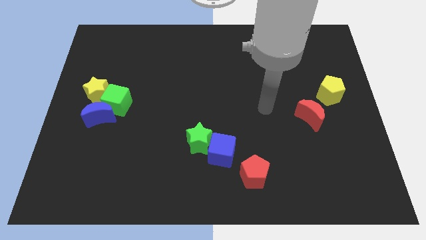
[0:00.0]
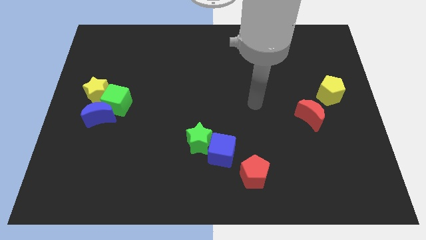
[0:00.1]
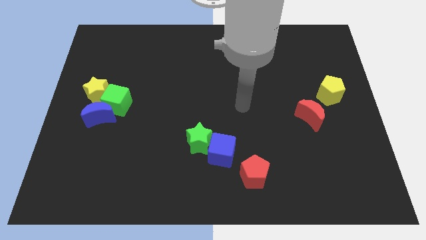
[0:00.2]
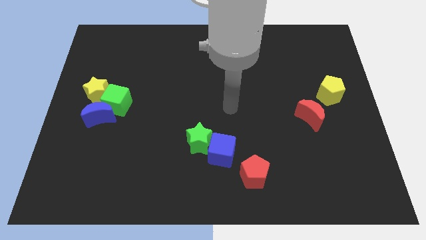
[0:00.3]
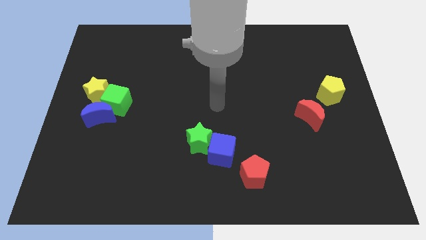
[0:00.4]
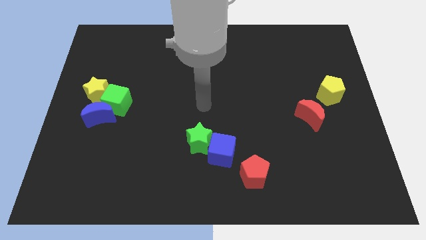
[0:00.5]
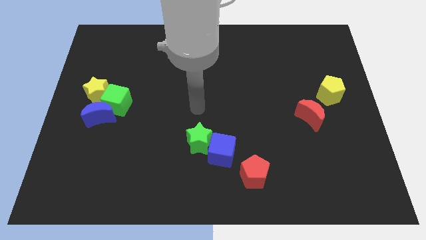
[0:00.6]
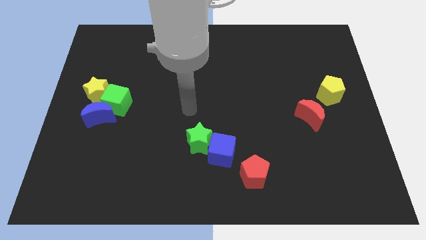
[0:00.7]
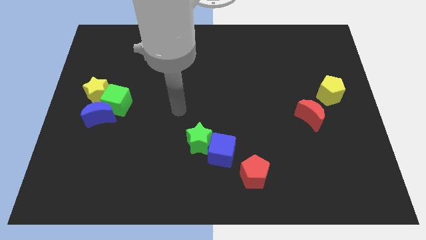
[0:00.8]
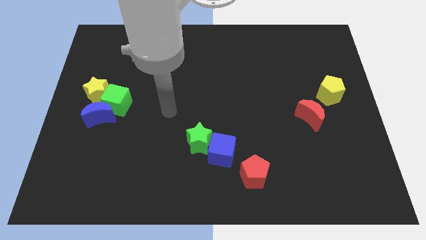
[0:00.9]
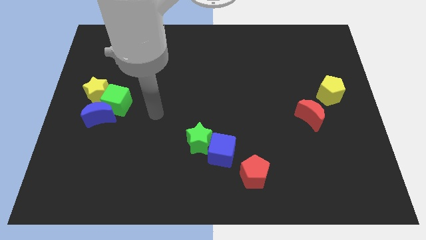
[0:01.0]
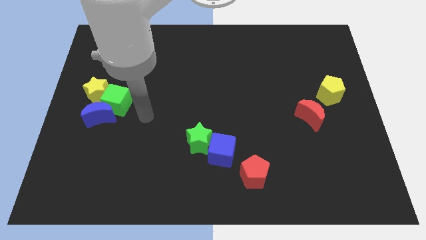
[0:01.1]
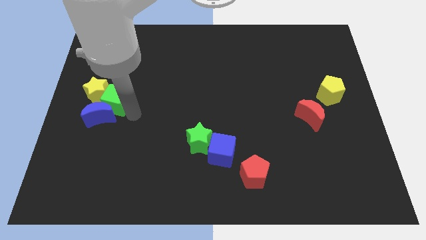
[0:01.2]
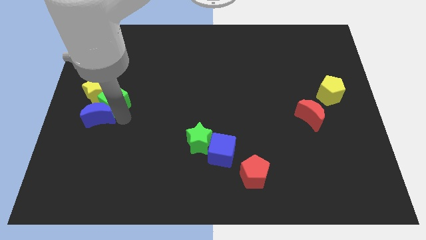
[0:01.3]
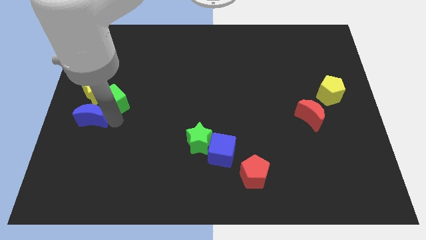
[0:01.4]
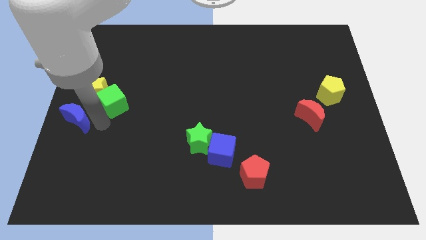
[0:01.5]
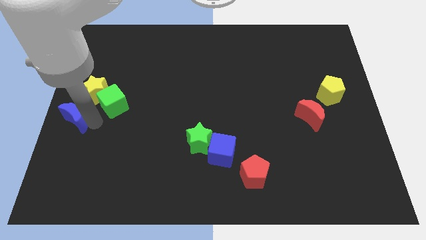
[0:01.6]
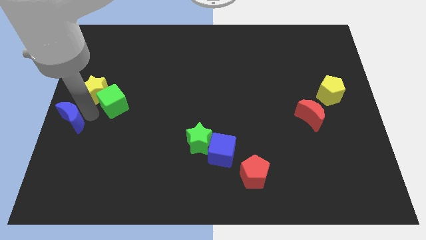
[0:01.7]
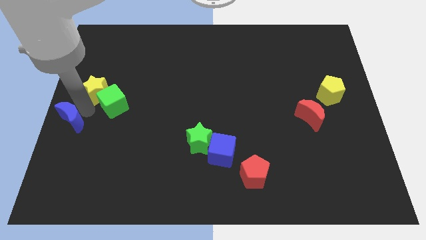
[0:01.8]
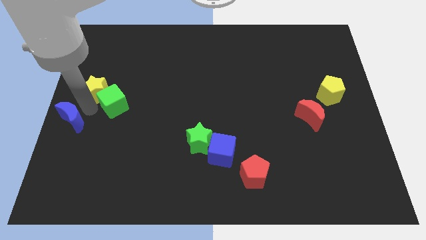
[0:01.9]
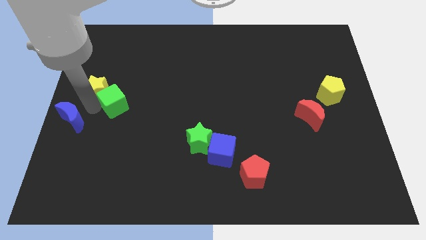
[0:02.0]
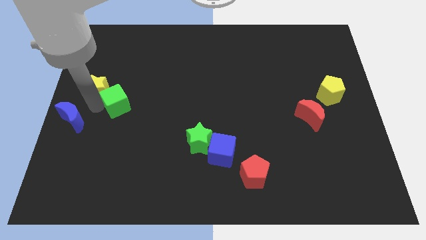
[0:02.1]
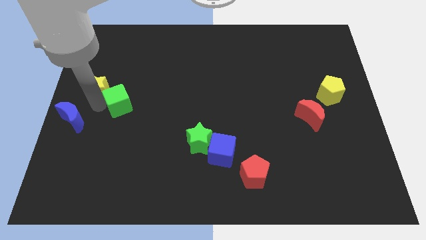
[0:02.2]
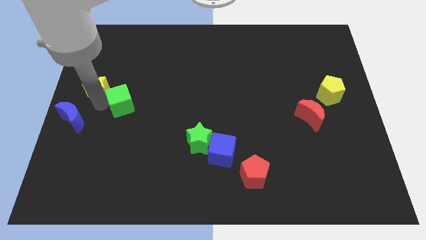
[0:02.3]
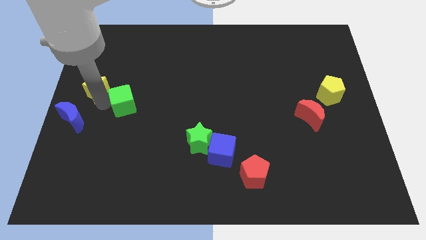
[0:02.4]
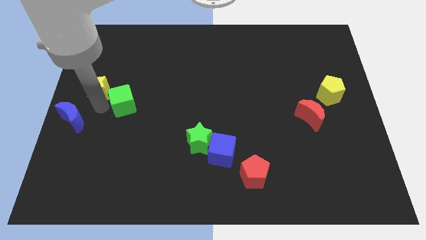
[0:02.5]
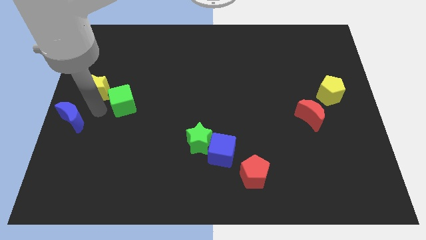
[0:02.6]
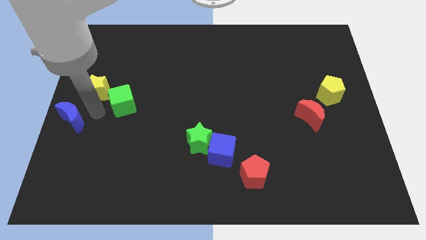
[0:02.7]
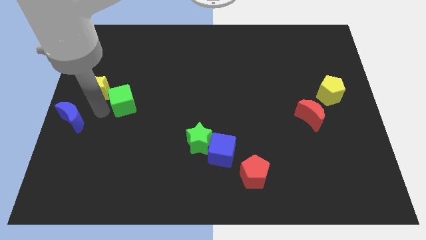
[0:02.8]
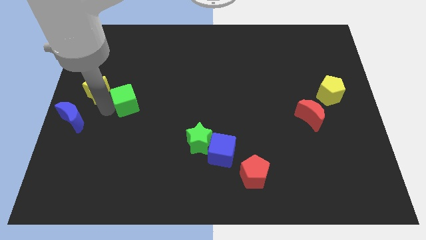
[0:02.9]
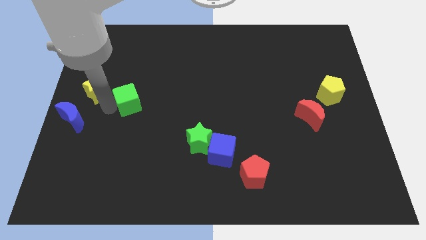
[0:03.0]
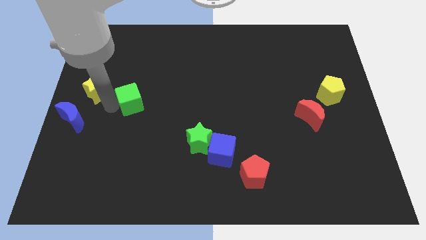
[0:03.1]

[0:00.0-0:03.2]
move the green cube away from the blue moon and yellow star

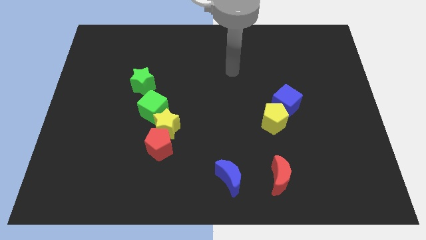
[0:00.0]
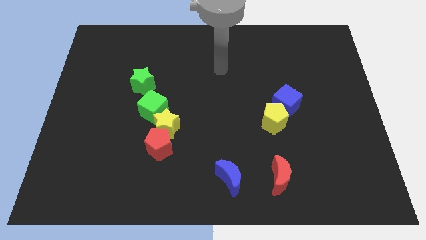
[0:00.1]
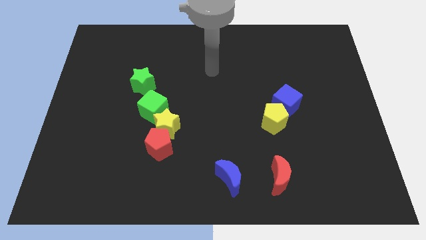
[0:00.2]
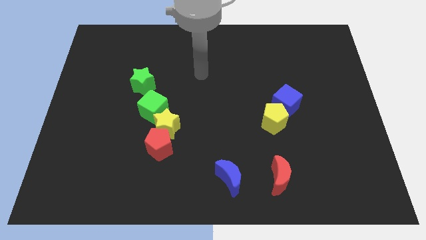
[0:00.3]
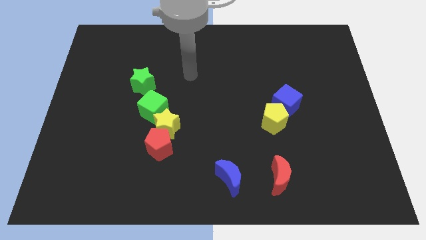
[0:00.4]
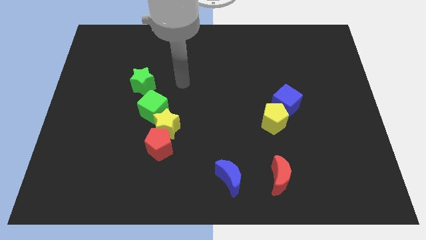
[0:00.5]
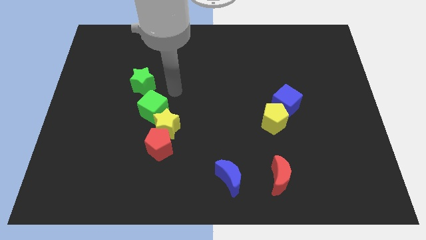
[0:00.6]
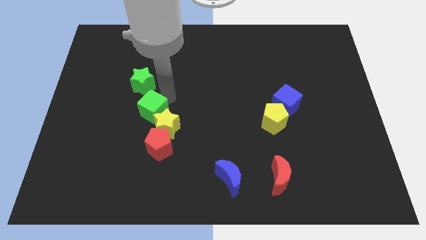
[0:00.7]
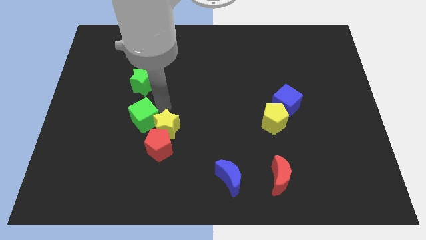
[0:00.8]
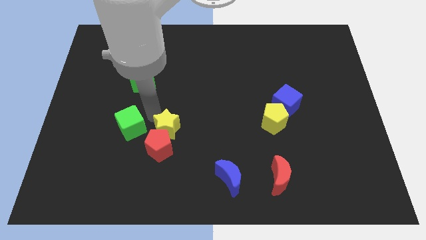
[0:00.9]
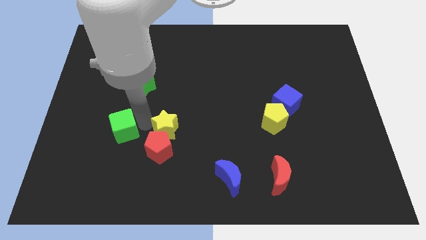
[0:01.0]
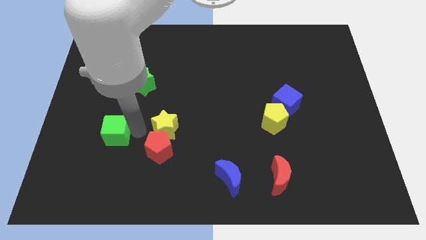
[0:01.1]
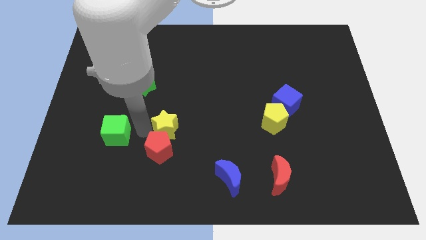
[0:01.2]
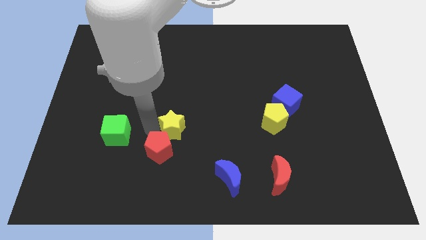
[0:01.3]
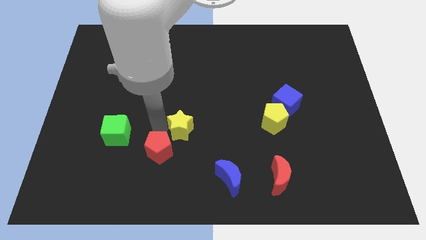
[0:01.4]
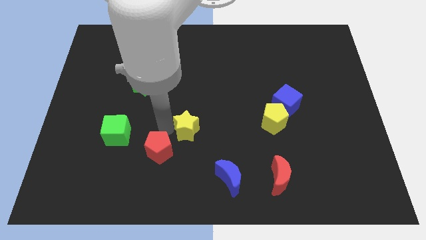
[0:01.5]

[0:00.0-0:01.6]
pull the yellow star apart from the red pentagon and green cube

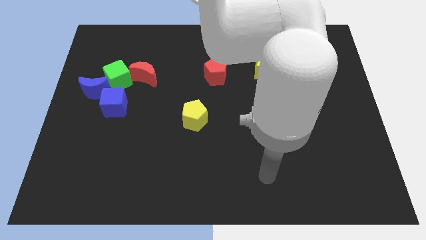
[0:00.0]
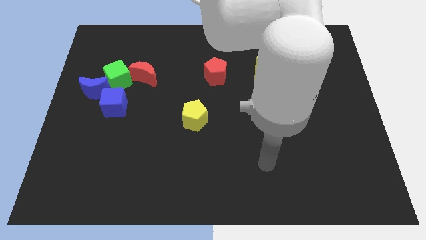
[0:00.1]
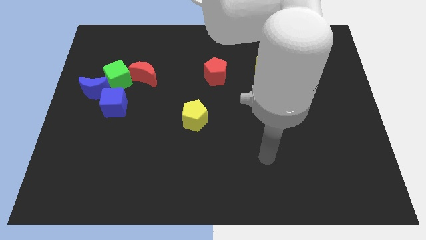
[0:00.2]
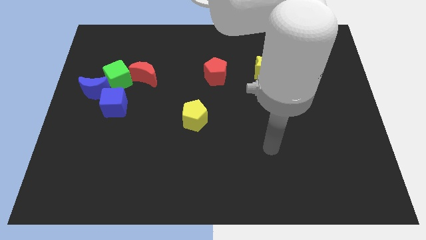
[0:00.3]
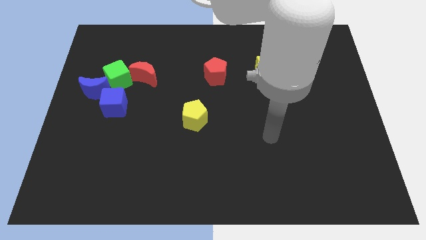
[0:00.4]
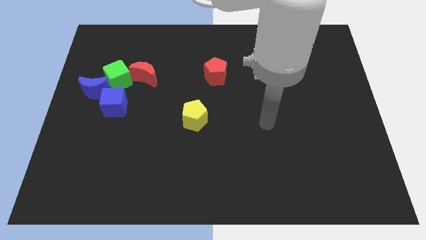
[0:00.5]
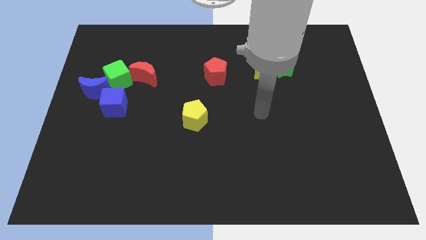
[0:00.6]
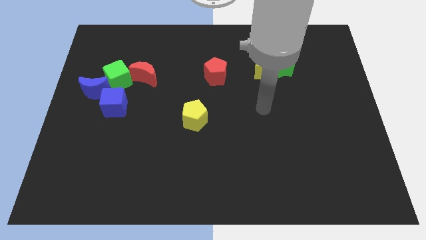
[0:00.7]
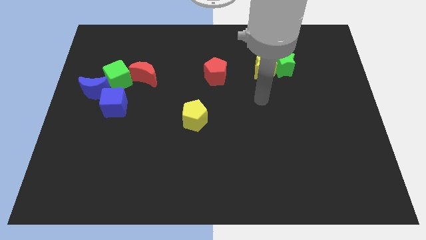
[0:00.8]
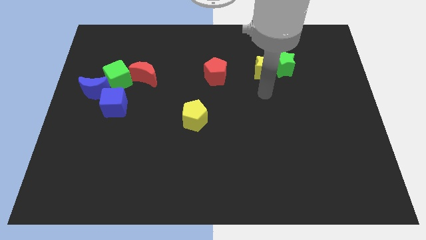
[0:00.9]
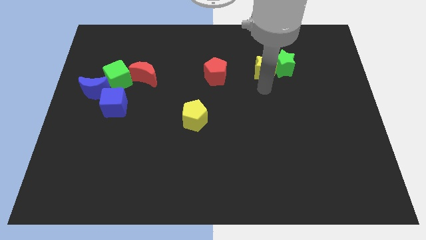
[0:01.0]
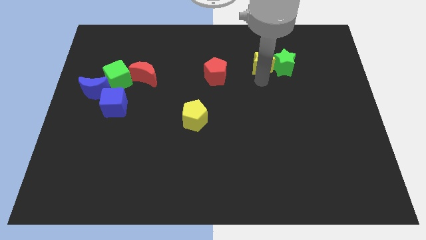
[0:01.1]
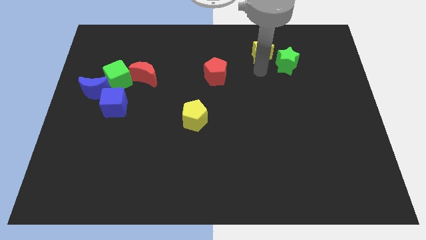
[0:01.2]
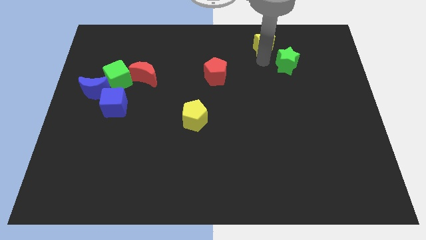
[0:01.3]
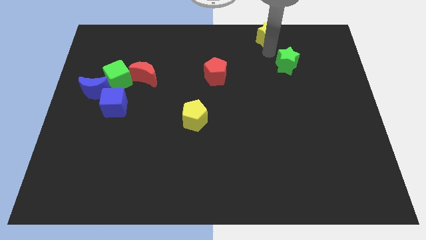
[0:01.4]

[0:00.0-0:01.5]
separate the green star from the yellow star

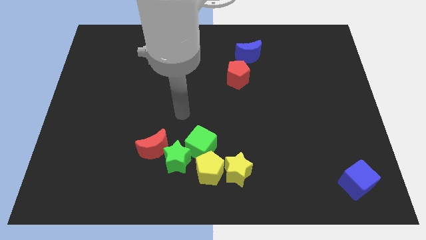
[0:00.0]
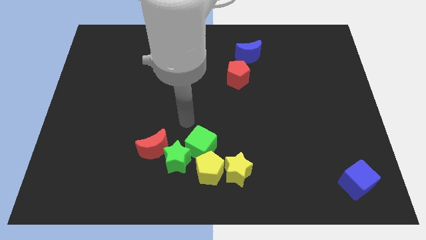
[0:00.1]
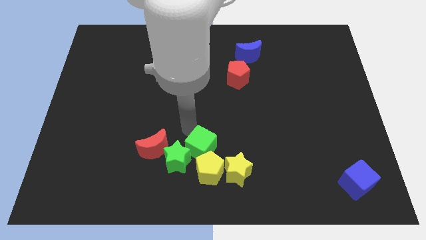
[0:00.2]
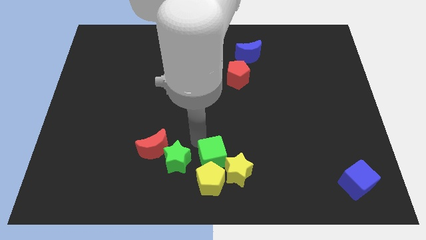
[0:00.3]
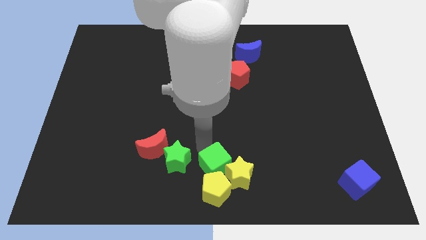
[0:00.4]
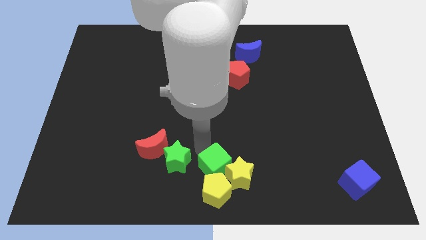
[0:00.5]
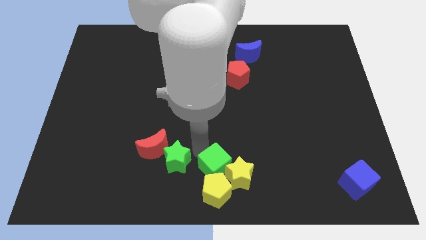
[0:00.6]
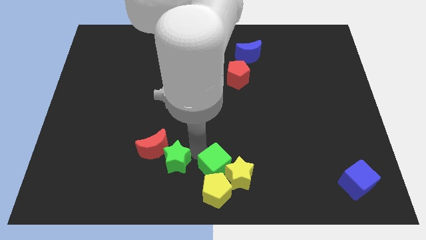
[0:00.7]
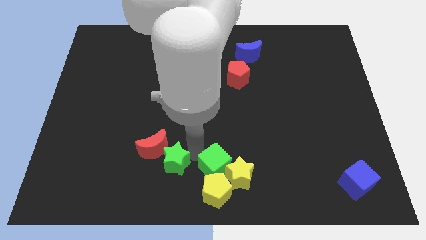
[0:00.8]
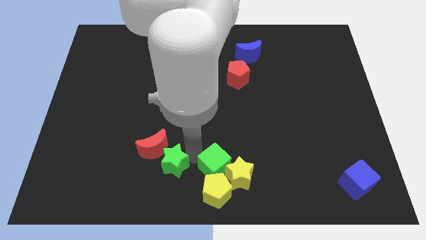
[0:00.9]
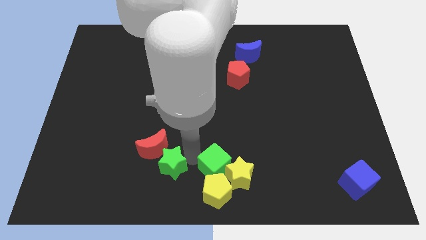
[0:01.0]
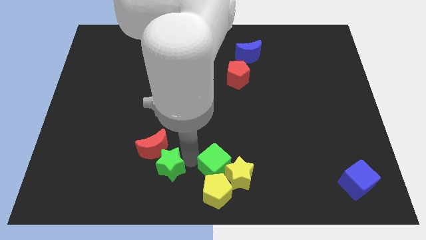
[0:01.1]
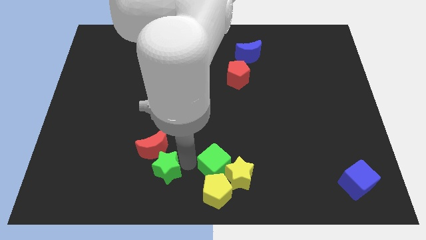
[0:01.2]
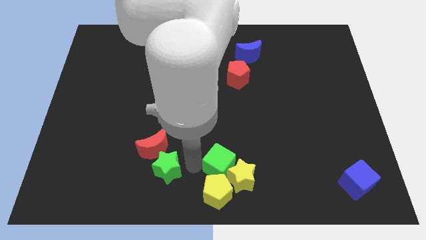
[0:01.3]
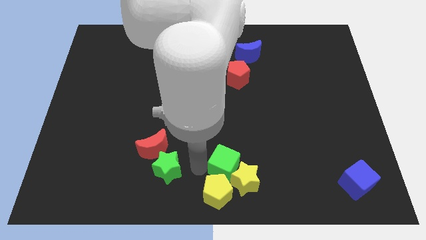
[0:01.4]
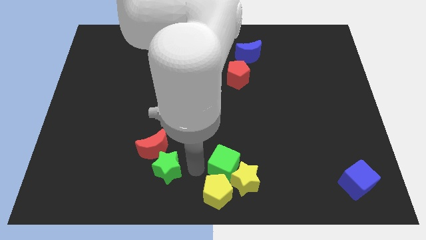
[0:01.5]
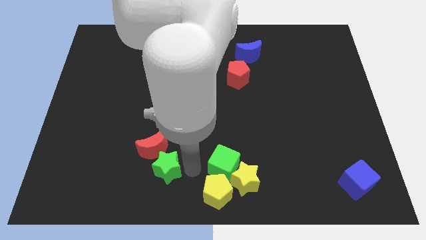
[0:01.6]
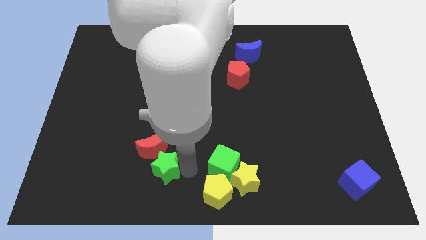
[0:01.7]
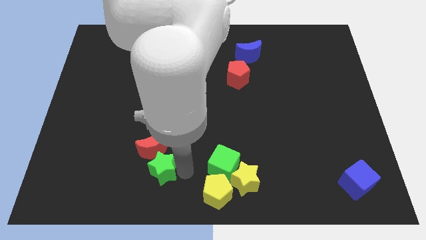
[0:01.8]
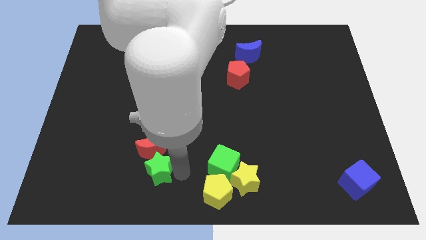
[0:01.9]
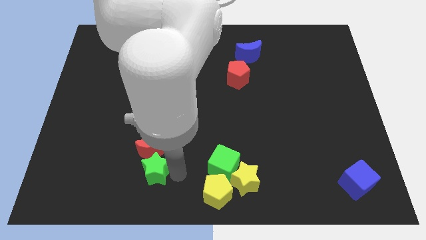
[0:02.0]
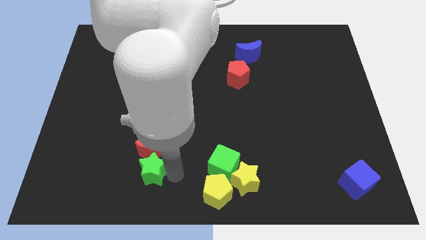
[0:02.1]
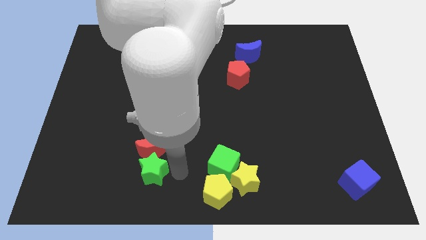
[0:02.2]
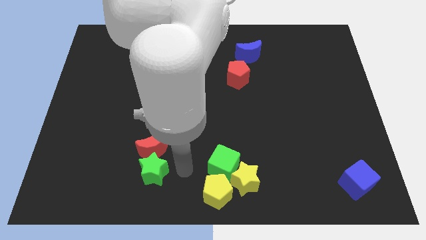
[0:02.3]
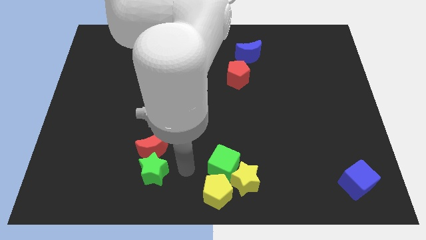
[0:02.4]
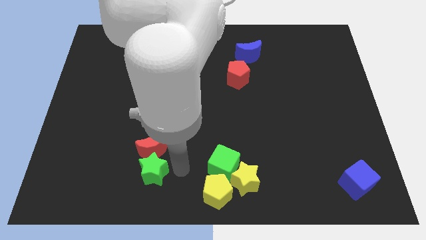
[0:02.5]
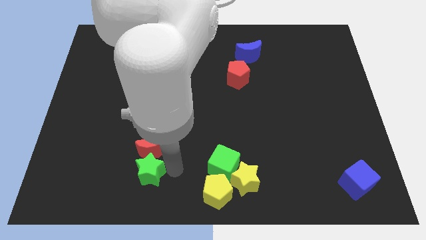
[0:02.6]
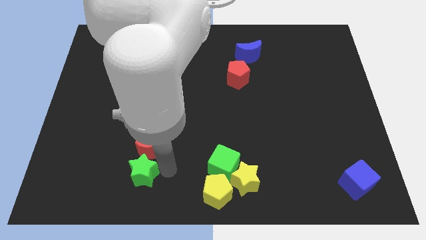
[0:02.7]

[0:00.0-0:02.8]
separate the green star from the group

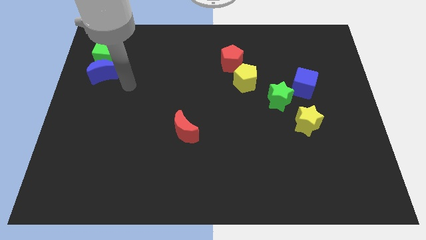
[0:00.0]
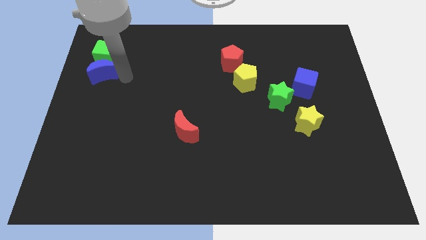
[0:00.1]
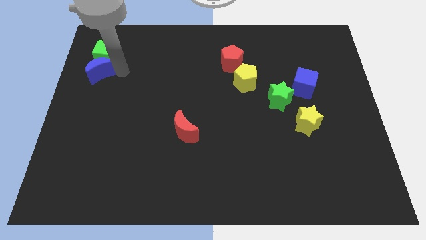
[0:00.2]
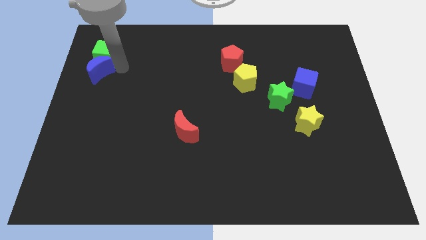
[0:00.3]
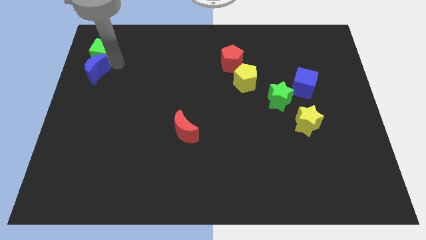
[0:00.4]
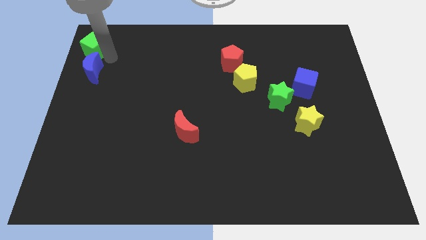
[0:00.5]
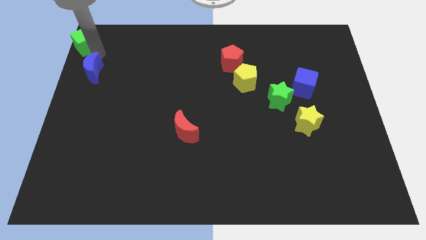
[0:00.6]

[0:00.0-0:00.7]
pull the blue moon apart from the green cube
